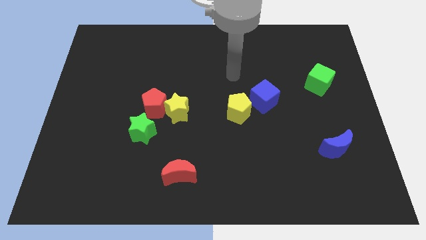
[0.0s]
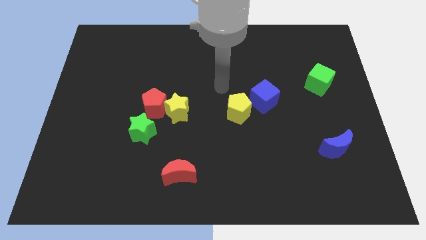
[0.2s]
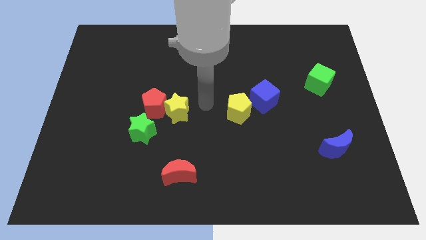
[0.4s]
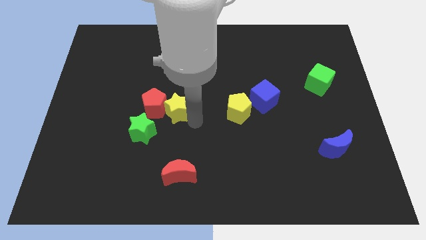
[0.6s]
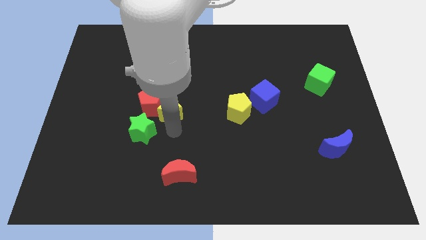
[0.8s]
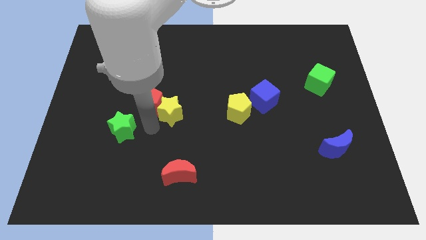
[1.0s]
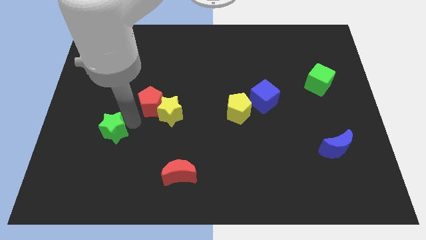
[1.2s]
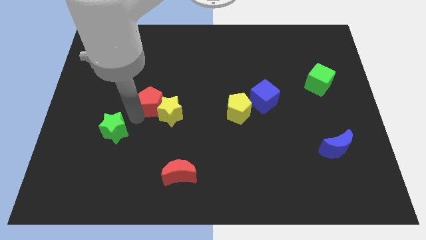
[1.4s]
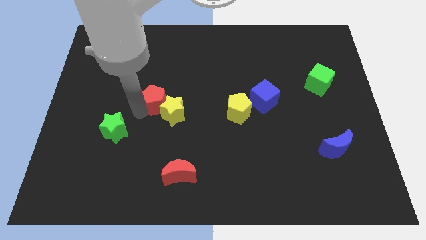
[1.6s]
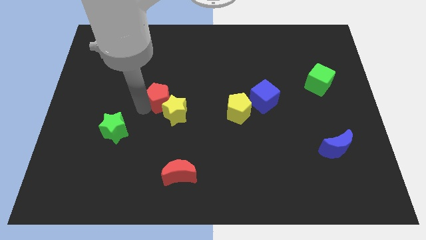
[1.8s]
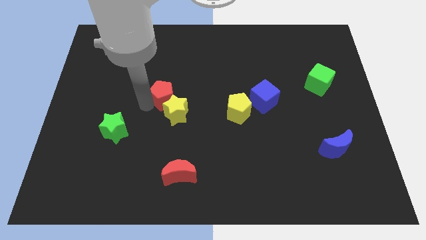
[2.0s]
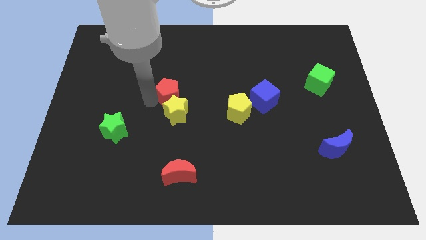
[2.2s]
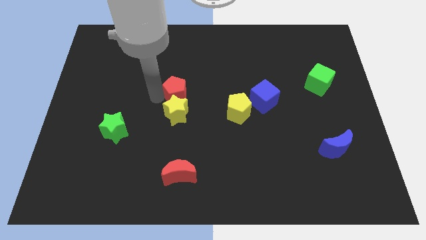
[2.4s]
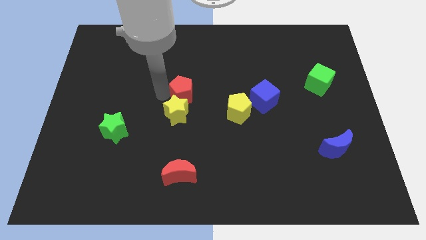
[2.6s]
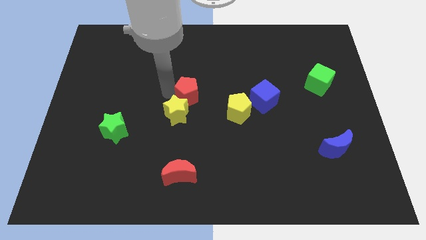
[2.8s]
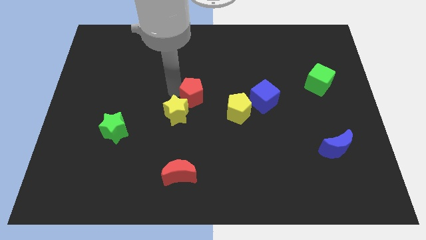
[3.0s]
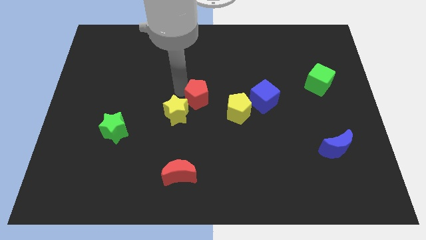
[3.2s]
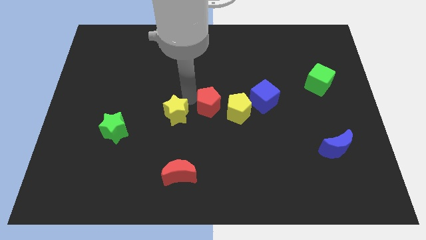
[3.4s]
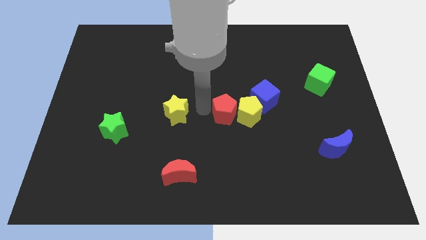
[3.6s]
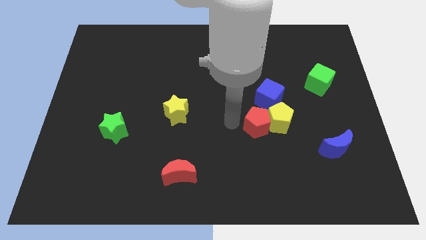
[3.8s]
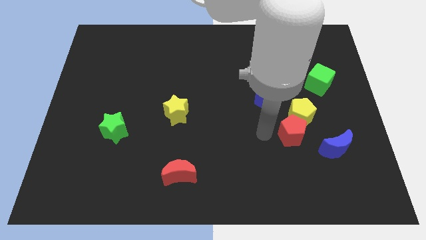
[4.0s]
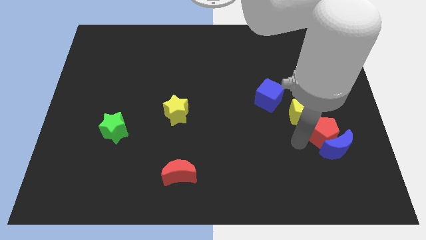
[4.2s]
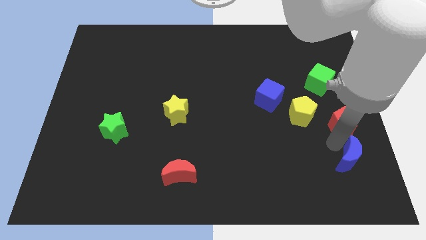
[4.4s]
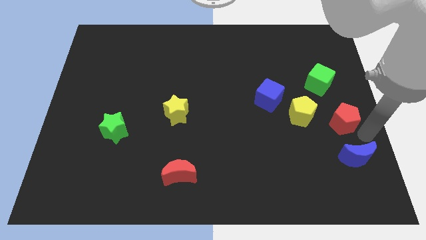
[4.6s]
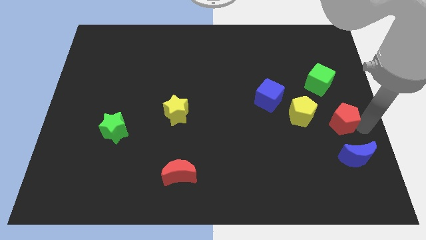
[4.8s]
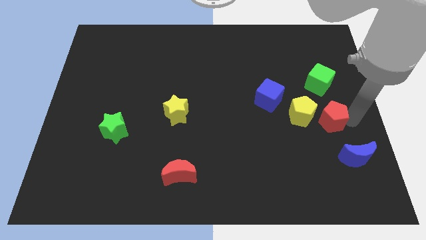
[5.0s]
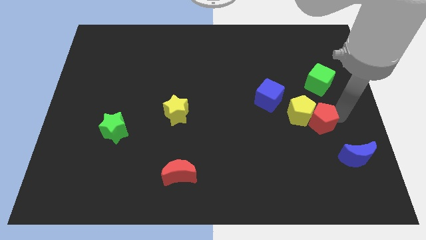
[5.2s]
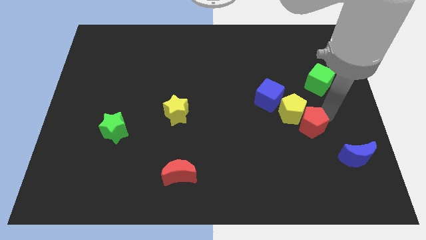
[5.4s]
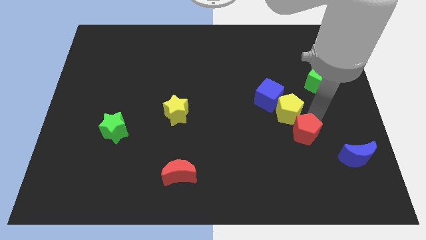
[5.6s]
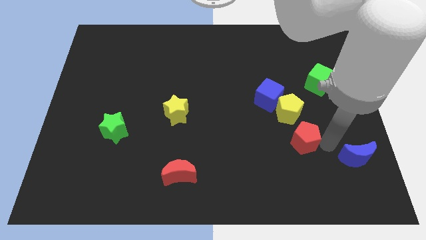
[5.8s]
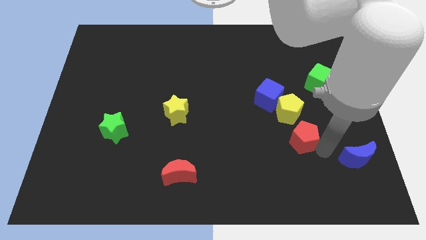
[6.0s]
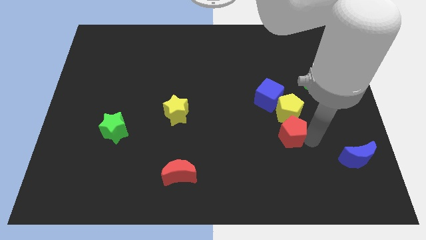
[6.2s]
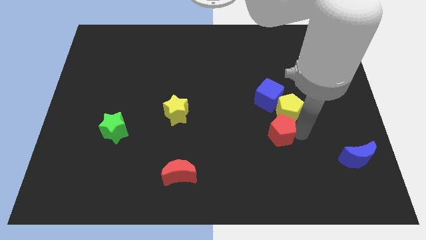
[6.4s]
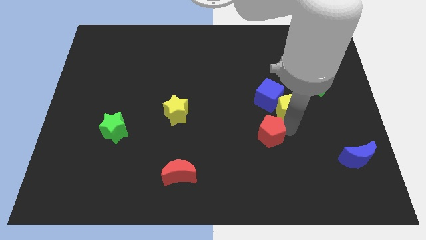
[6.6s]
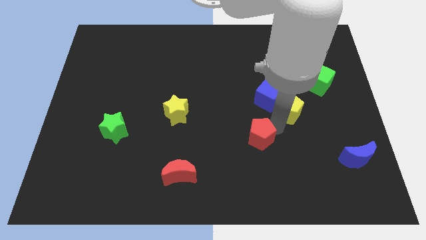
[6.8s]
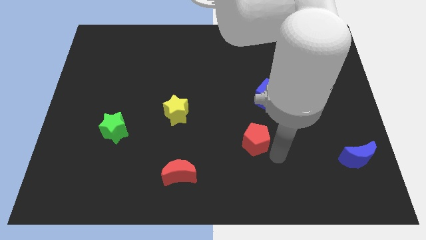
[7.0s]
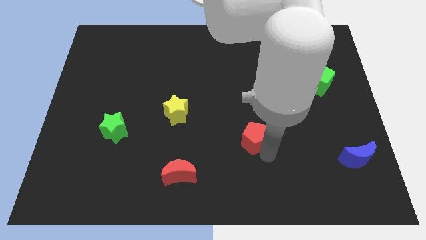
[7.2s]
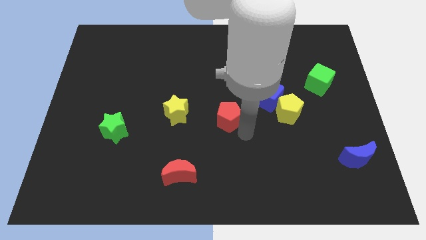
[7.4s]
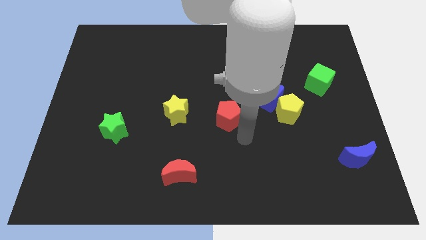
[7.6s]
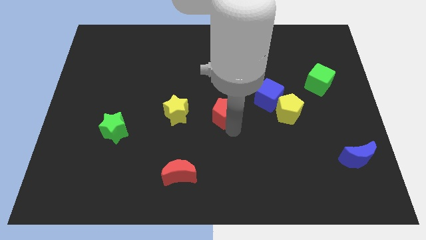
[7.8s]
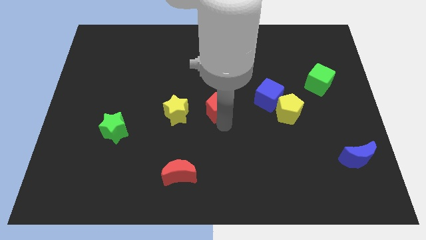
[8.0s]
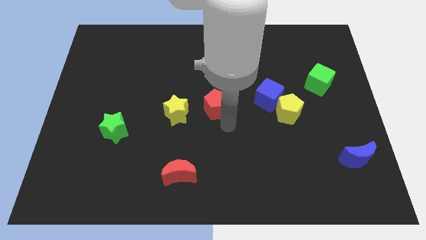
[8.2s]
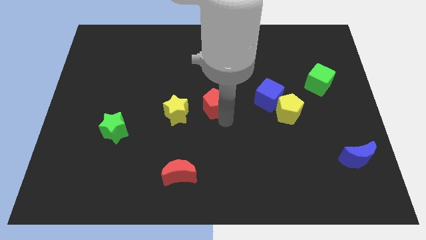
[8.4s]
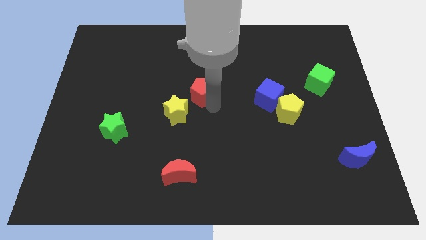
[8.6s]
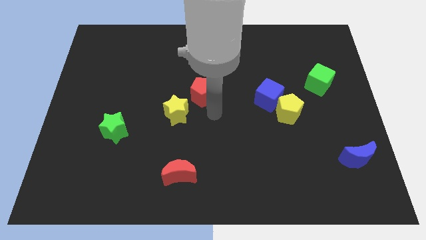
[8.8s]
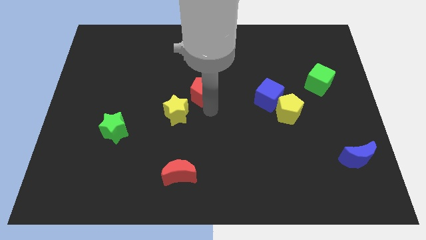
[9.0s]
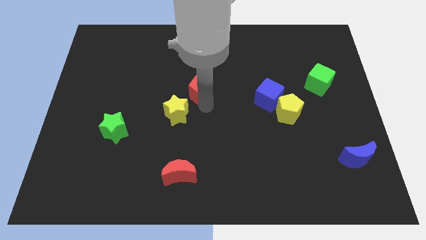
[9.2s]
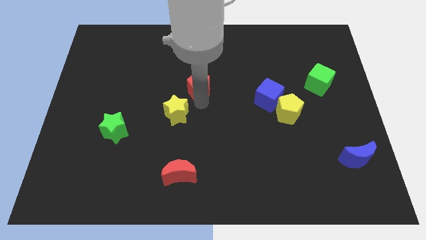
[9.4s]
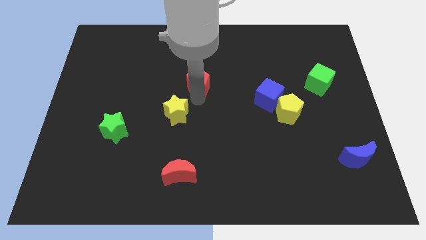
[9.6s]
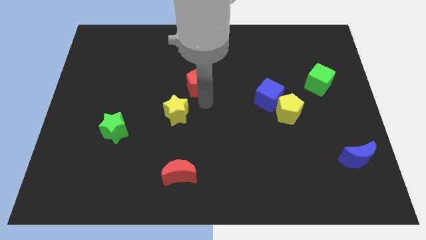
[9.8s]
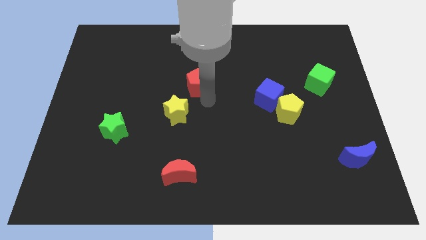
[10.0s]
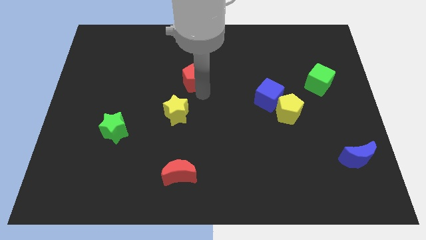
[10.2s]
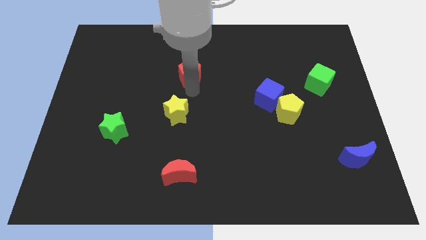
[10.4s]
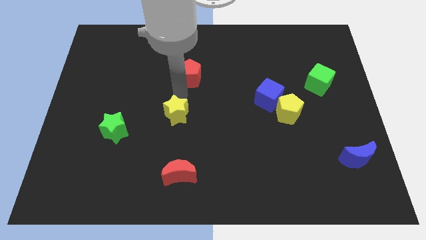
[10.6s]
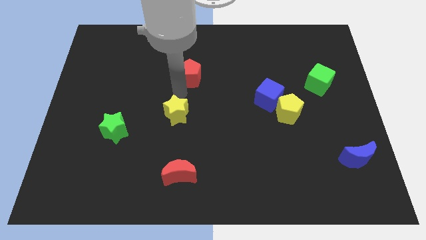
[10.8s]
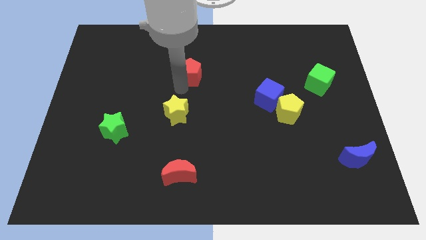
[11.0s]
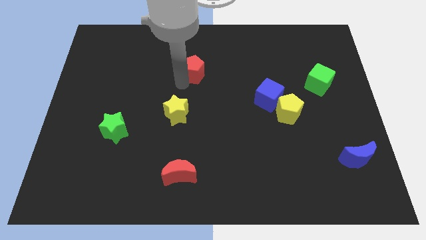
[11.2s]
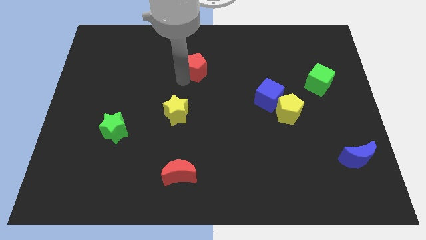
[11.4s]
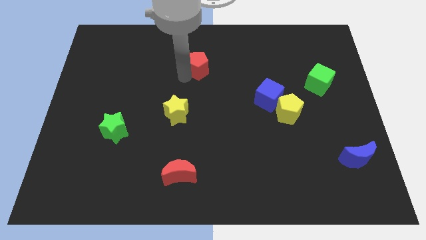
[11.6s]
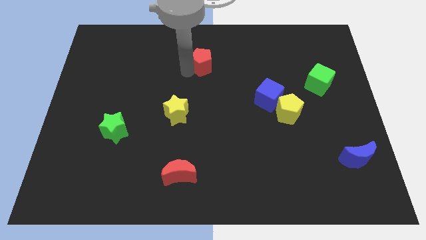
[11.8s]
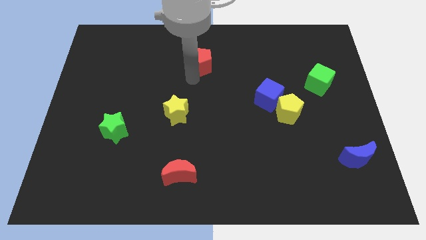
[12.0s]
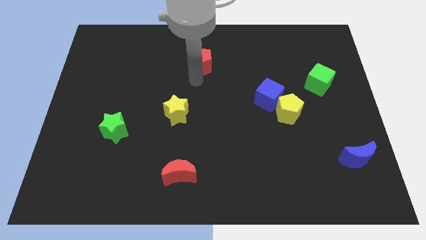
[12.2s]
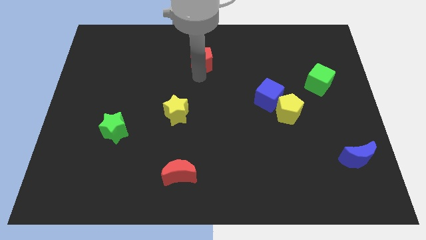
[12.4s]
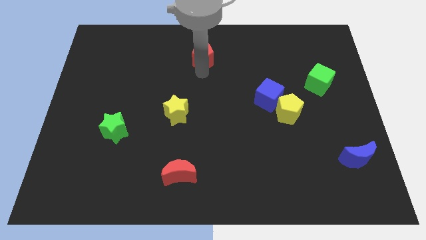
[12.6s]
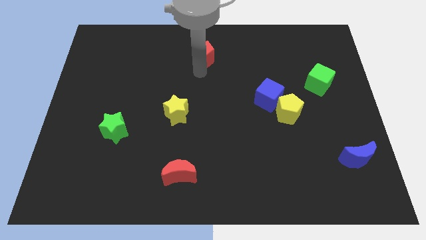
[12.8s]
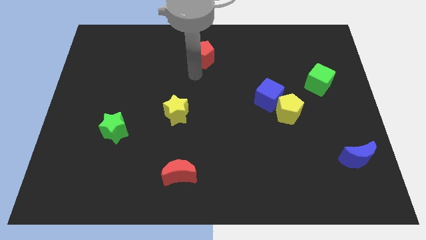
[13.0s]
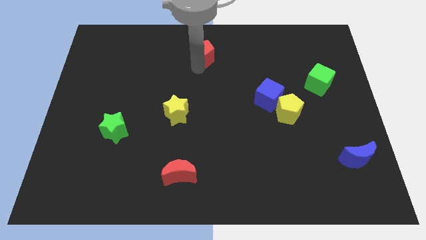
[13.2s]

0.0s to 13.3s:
slide the red pentagon to the top side
